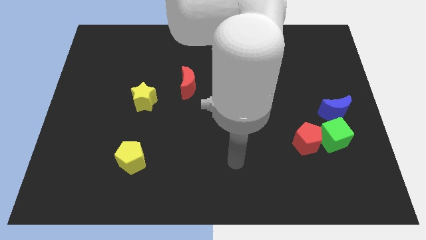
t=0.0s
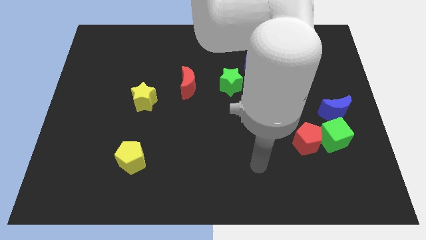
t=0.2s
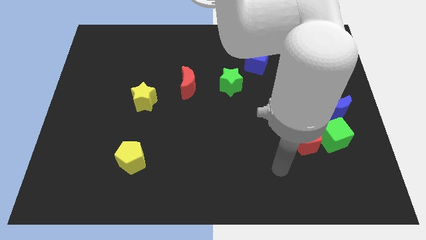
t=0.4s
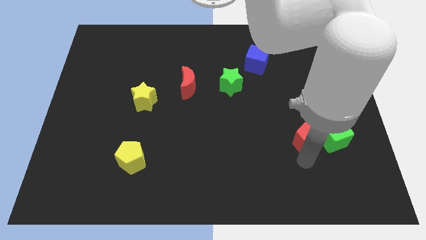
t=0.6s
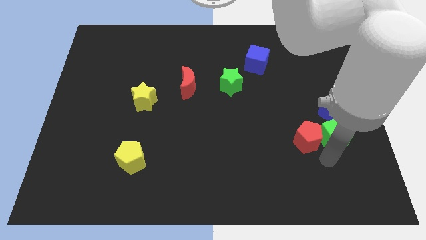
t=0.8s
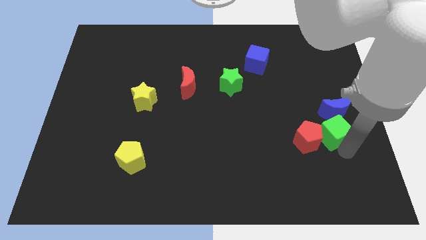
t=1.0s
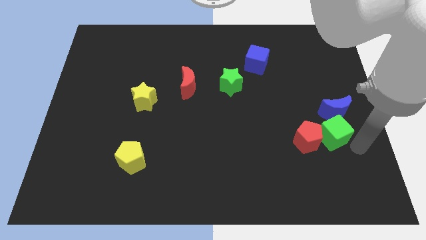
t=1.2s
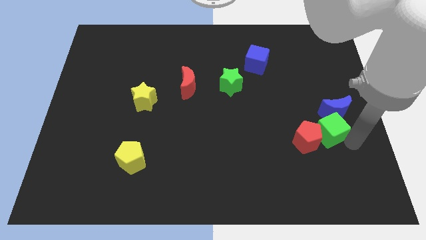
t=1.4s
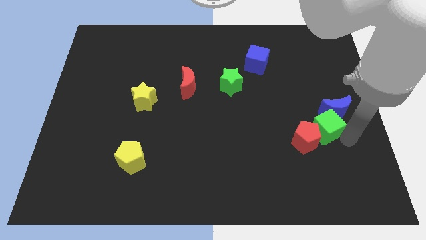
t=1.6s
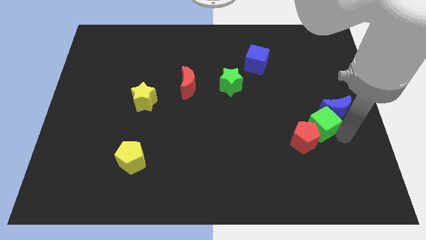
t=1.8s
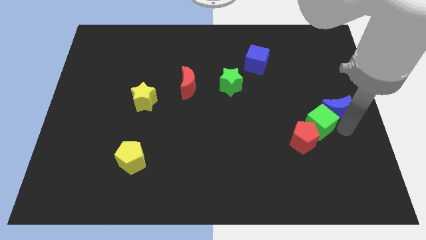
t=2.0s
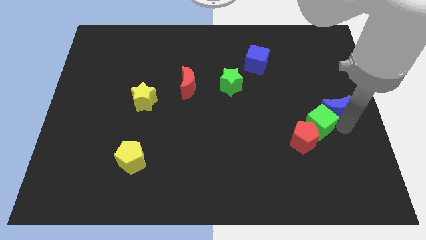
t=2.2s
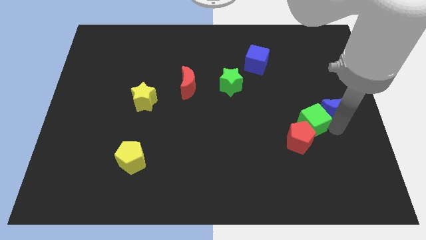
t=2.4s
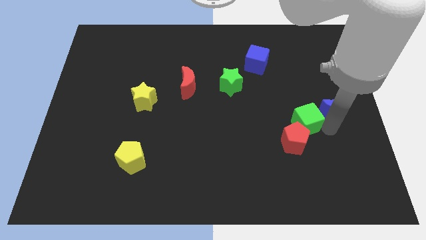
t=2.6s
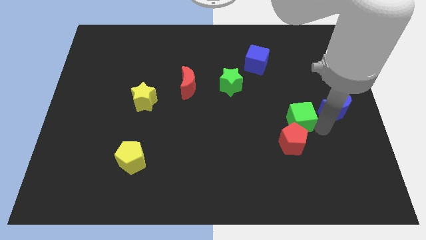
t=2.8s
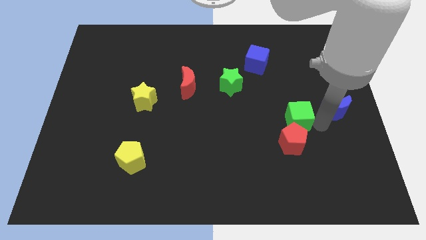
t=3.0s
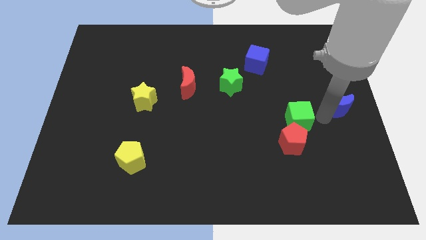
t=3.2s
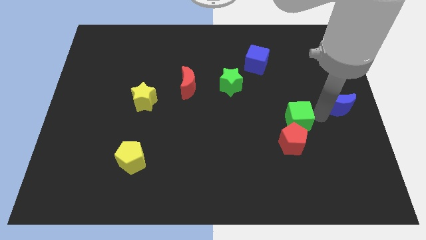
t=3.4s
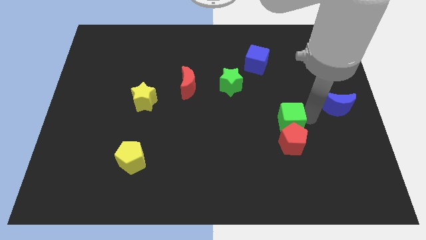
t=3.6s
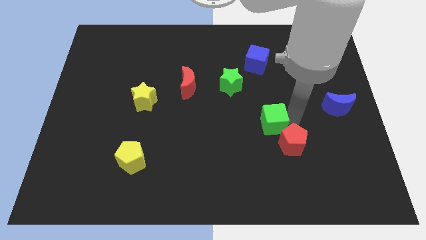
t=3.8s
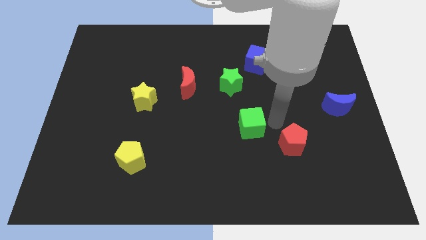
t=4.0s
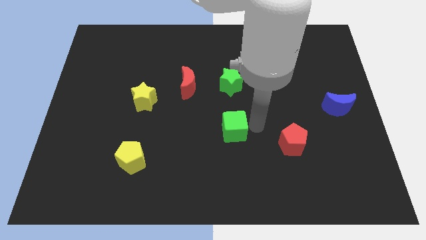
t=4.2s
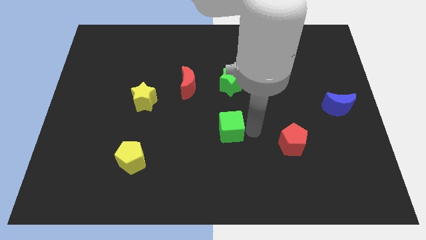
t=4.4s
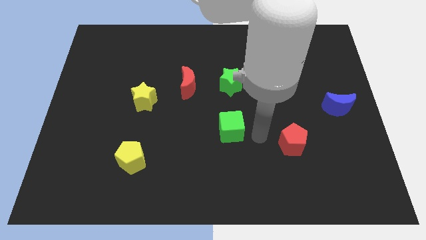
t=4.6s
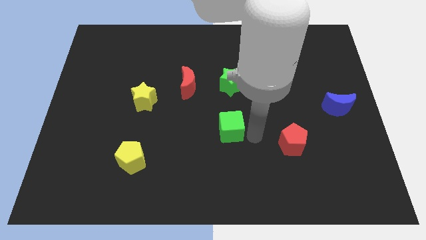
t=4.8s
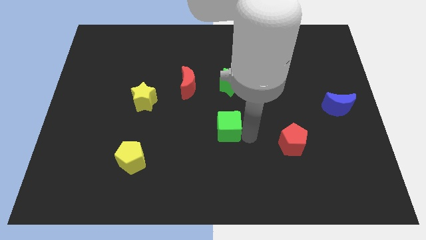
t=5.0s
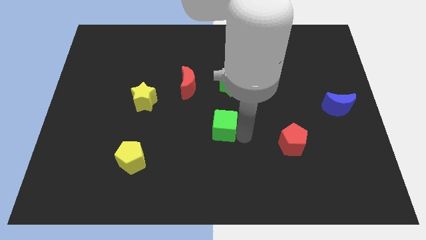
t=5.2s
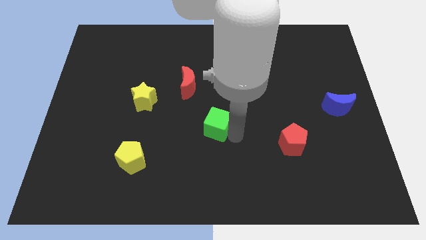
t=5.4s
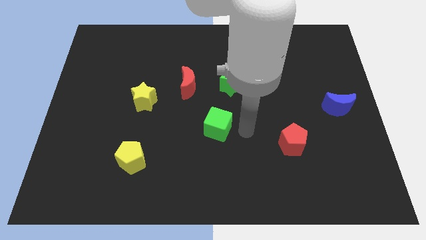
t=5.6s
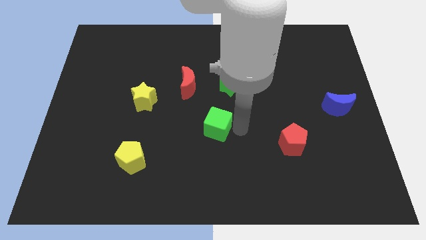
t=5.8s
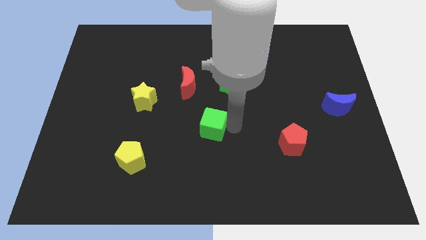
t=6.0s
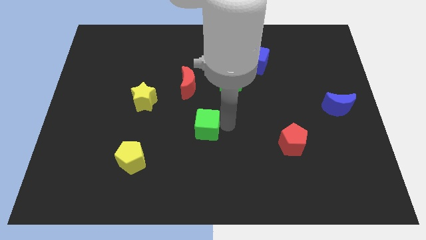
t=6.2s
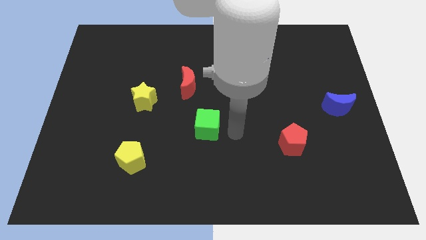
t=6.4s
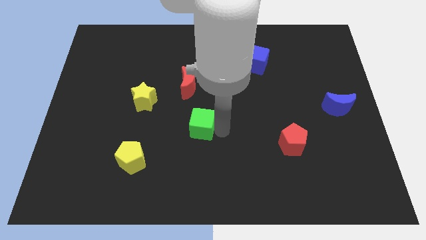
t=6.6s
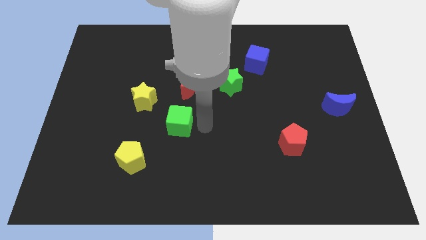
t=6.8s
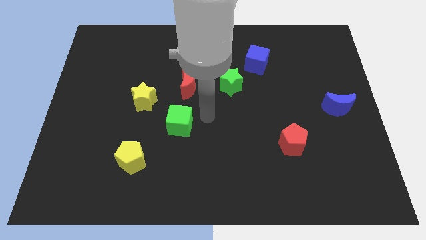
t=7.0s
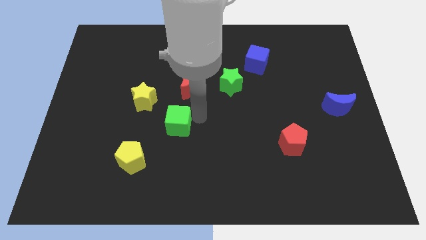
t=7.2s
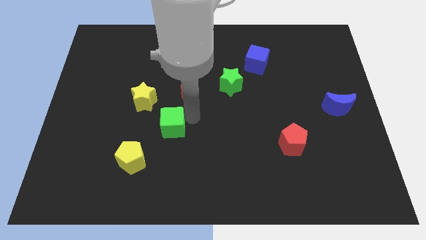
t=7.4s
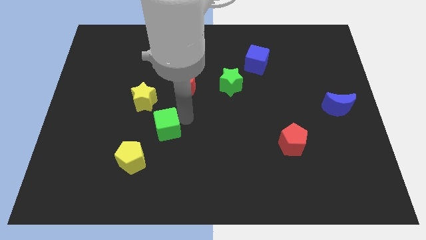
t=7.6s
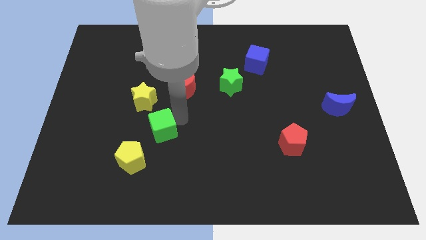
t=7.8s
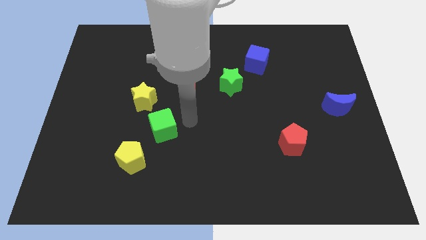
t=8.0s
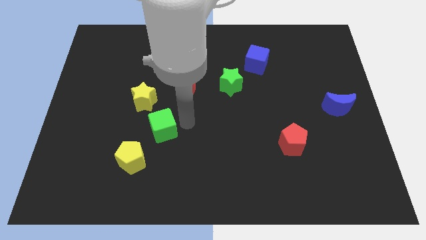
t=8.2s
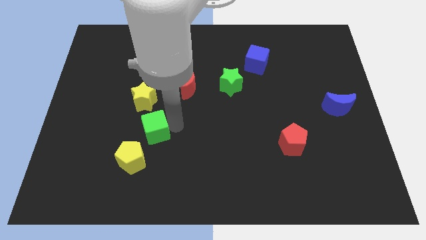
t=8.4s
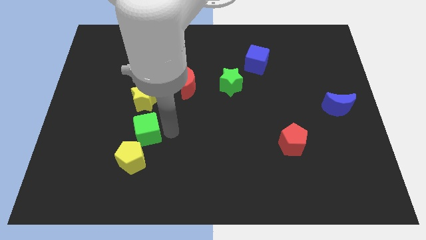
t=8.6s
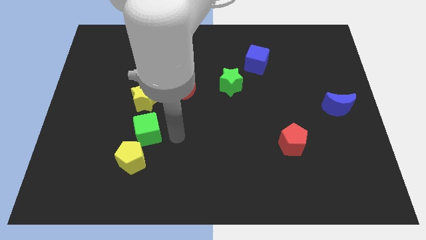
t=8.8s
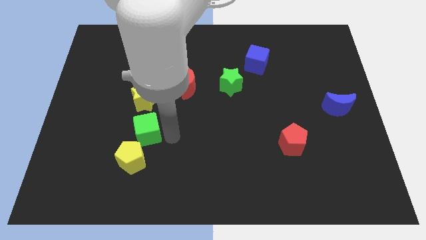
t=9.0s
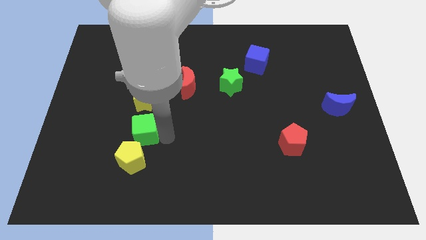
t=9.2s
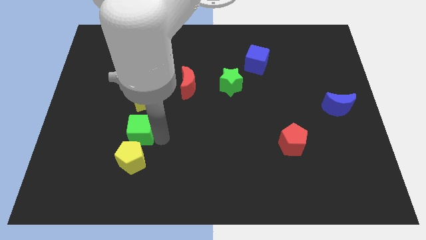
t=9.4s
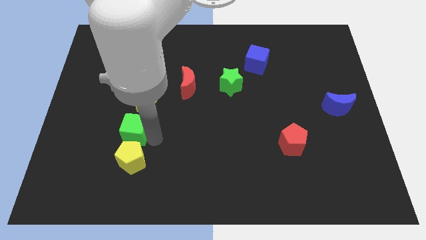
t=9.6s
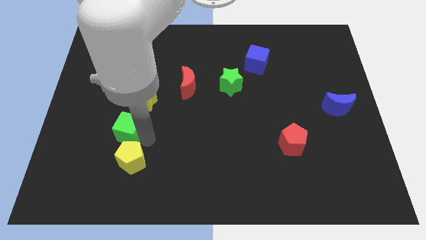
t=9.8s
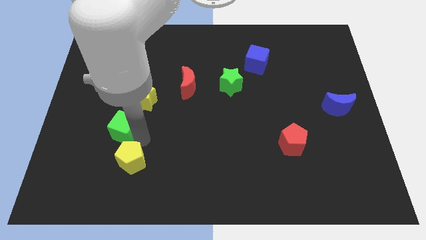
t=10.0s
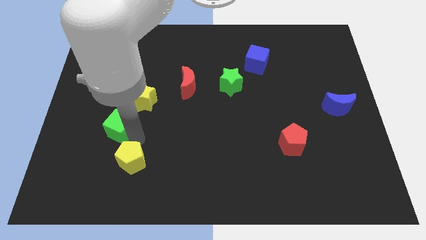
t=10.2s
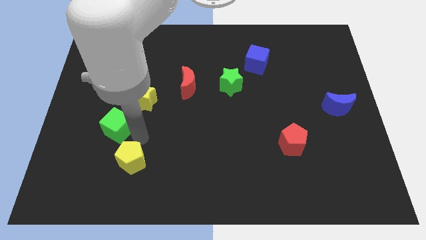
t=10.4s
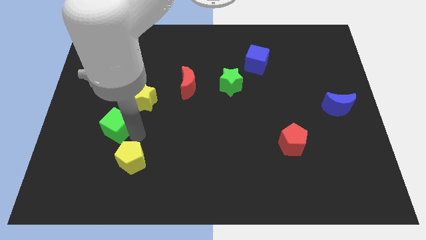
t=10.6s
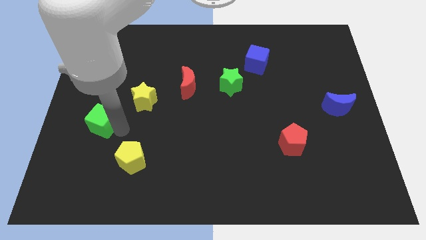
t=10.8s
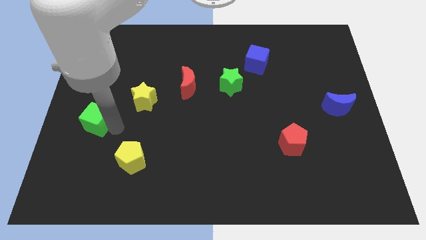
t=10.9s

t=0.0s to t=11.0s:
slide the green cube to the center left

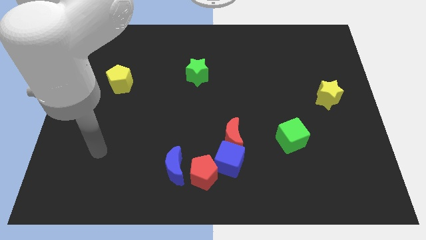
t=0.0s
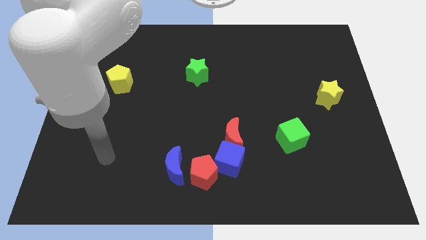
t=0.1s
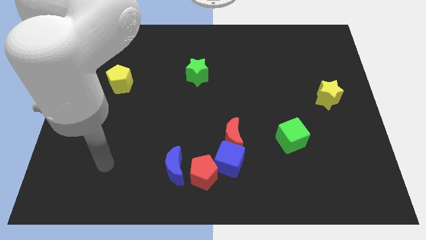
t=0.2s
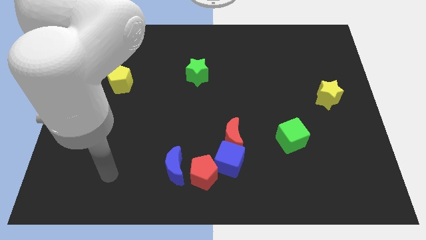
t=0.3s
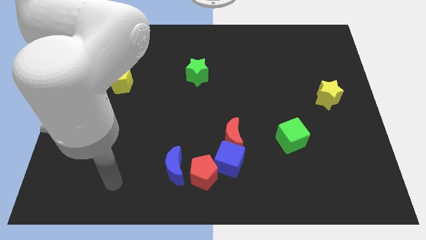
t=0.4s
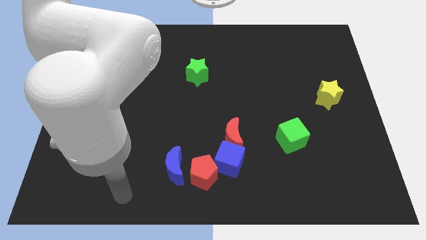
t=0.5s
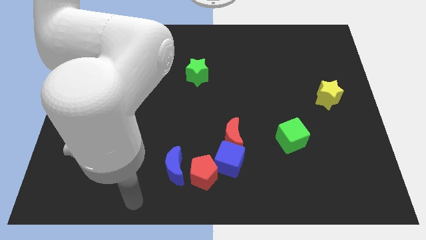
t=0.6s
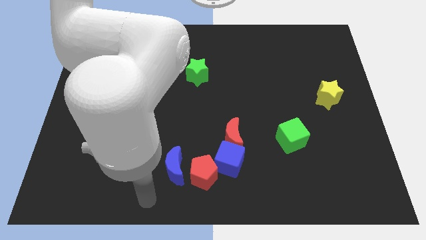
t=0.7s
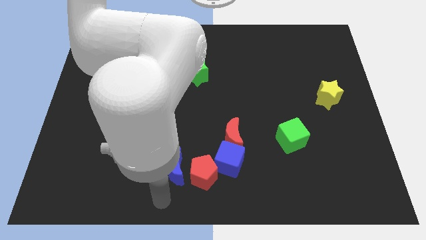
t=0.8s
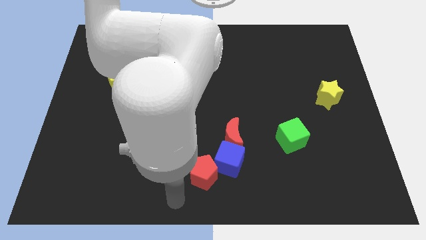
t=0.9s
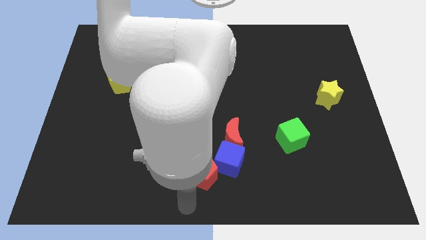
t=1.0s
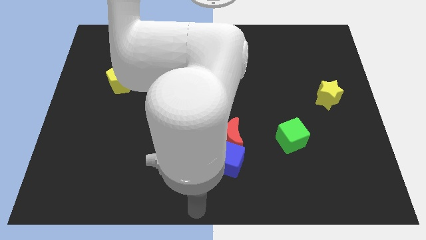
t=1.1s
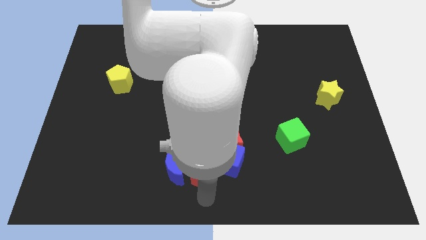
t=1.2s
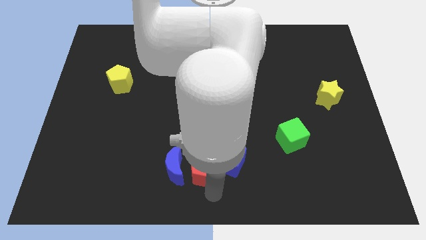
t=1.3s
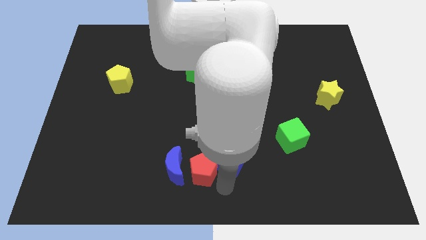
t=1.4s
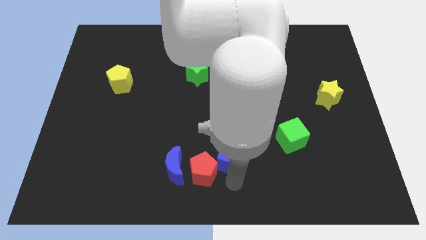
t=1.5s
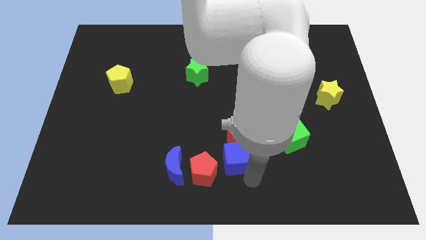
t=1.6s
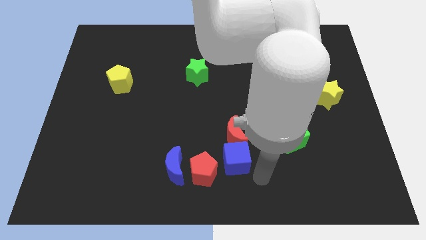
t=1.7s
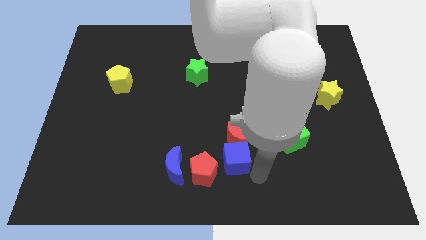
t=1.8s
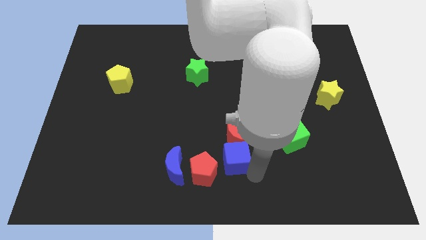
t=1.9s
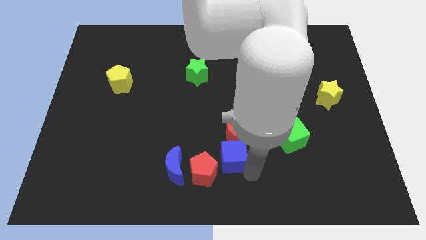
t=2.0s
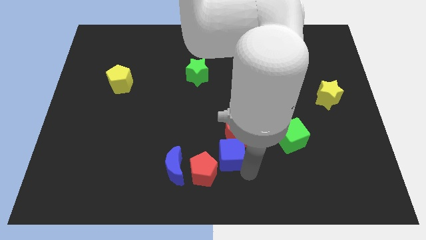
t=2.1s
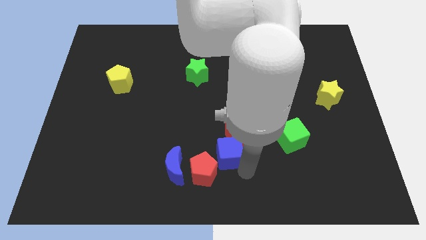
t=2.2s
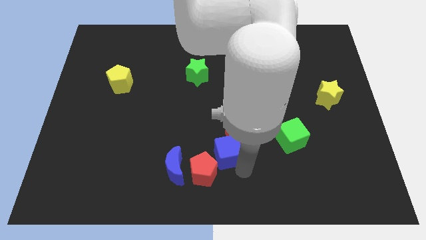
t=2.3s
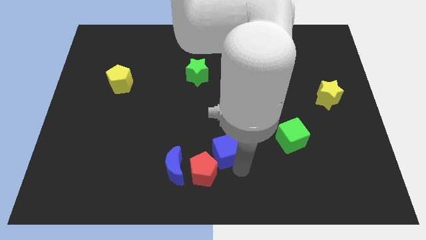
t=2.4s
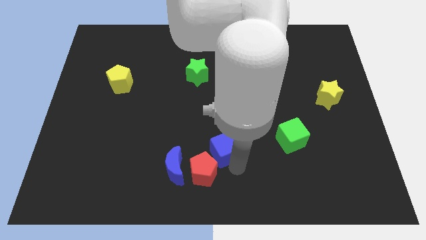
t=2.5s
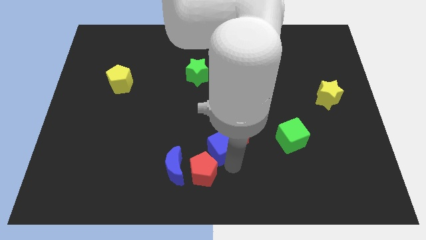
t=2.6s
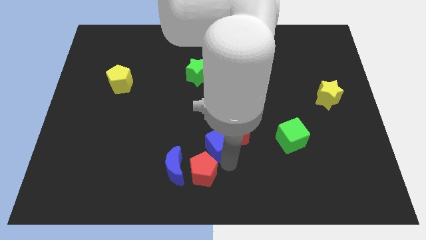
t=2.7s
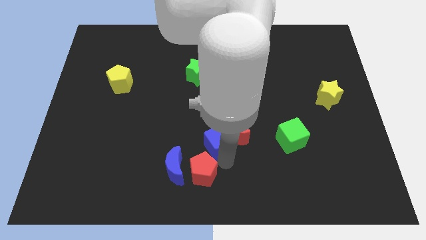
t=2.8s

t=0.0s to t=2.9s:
push the blue cube to the center of the board
